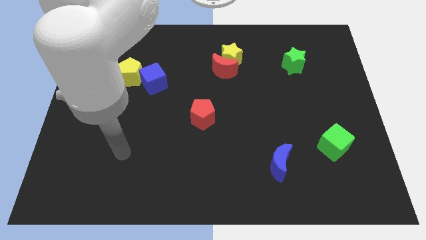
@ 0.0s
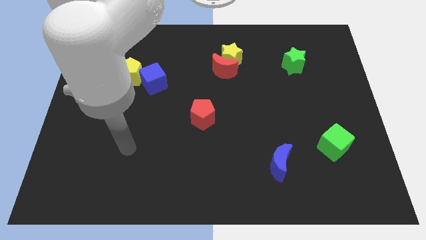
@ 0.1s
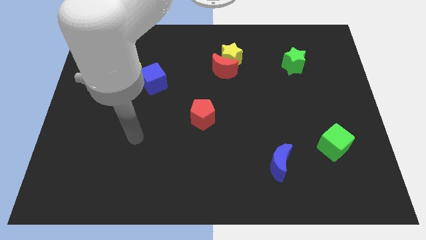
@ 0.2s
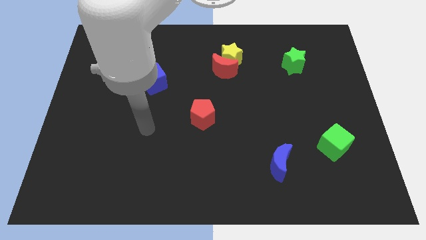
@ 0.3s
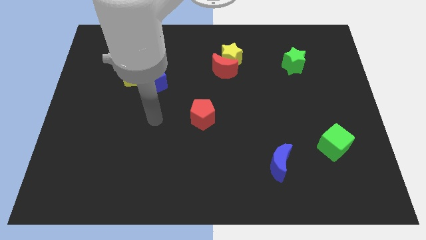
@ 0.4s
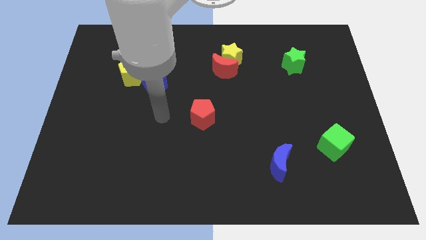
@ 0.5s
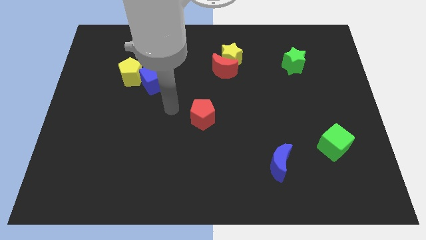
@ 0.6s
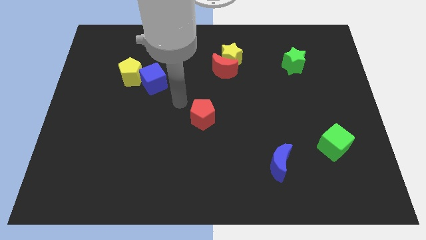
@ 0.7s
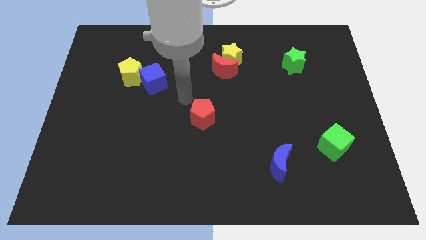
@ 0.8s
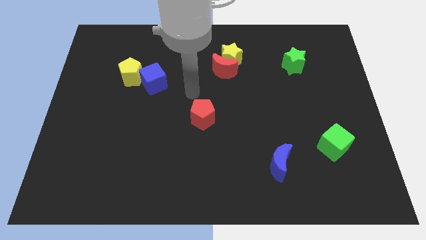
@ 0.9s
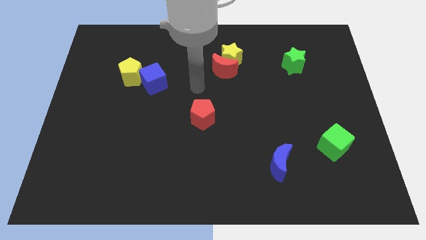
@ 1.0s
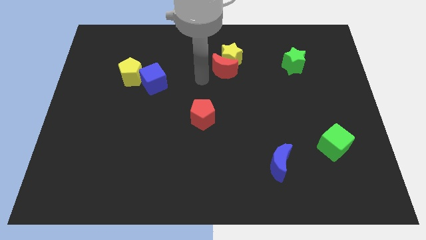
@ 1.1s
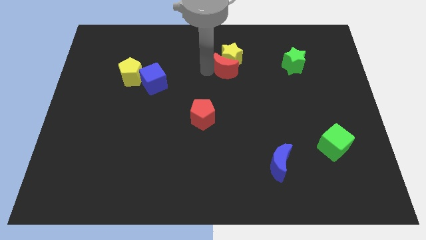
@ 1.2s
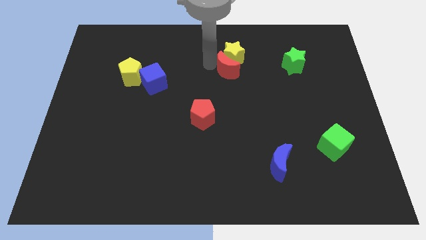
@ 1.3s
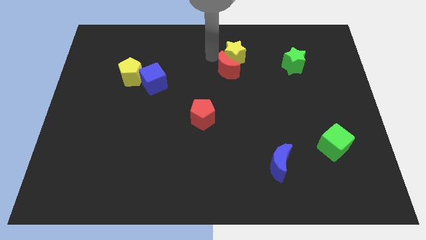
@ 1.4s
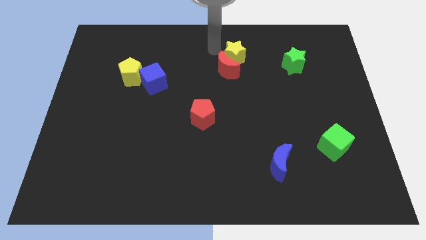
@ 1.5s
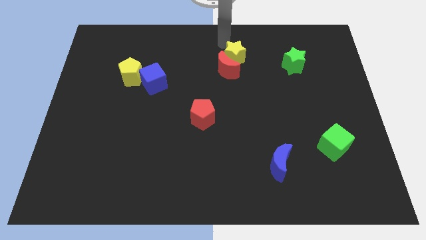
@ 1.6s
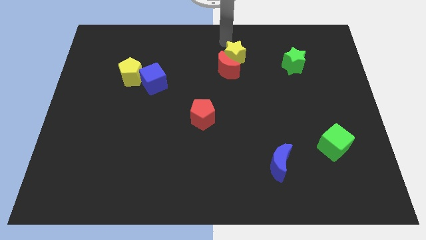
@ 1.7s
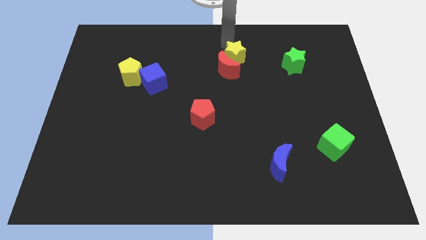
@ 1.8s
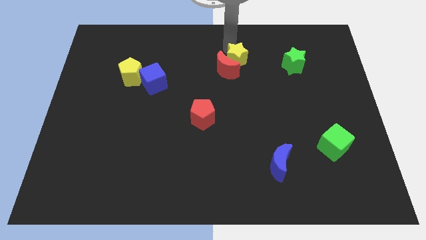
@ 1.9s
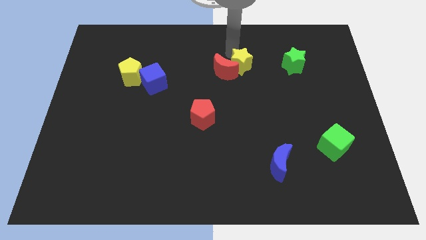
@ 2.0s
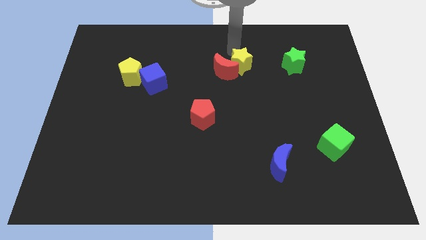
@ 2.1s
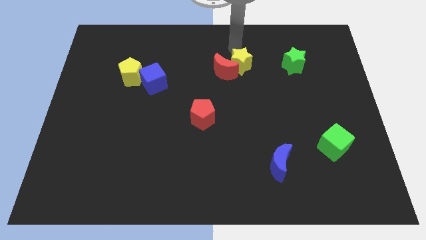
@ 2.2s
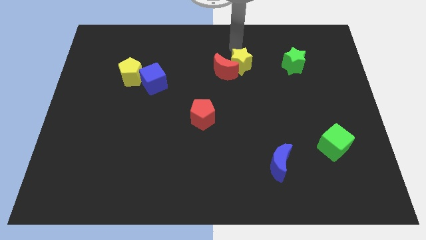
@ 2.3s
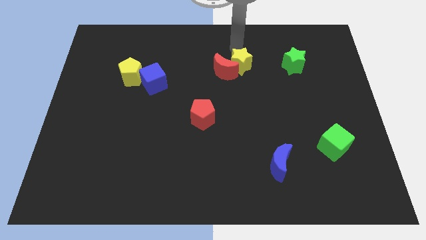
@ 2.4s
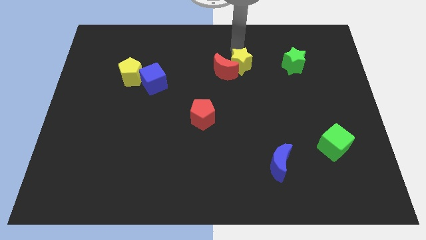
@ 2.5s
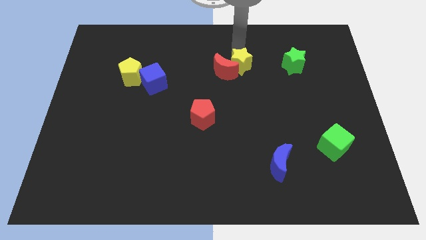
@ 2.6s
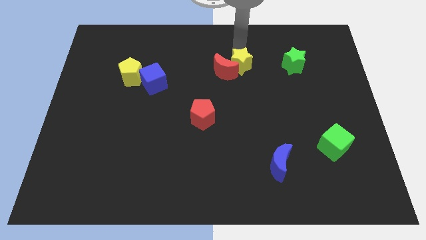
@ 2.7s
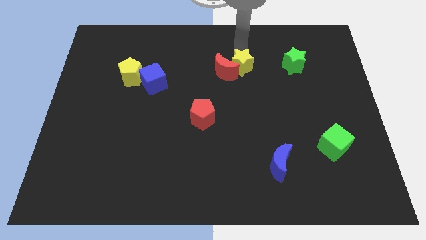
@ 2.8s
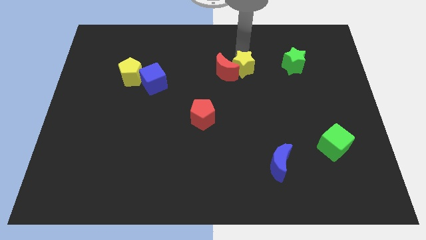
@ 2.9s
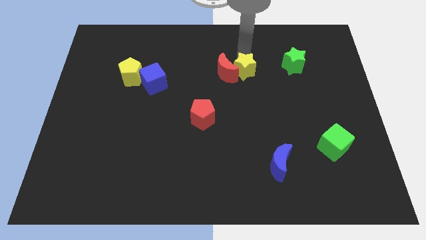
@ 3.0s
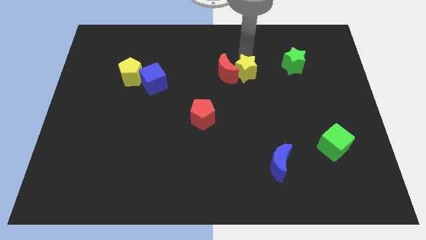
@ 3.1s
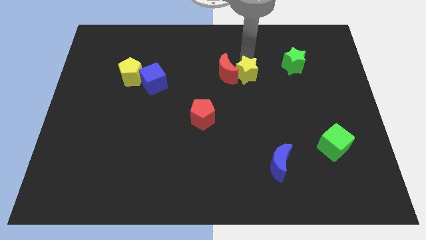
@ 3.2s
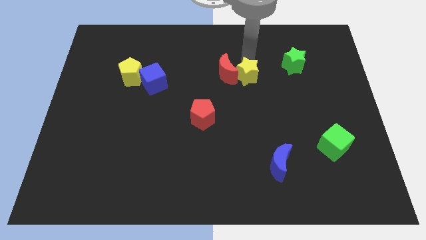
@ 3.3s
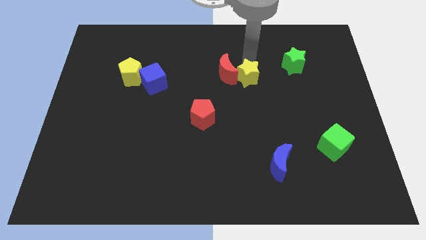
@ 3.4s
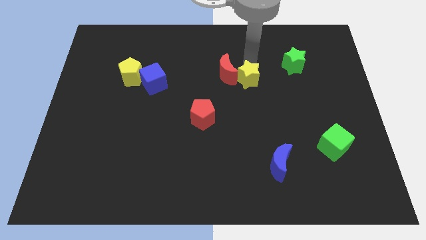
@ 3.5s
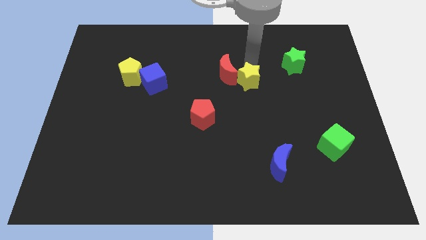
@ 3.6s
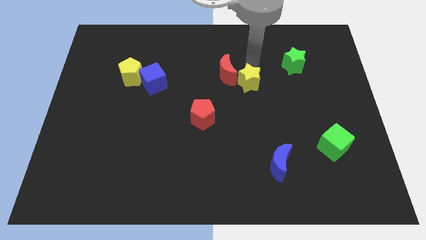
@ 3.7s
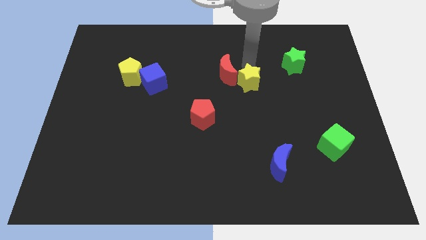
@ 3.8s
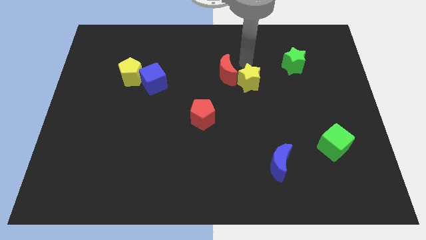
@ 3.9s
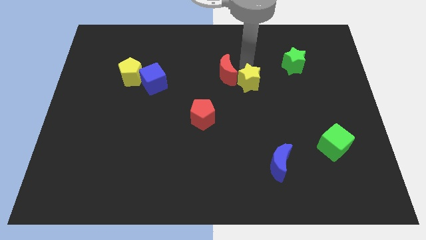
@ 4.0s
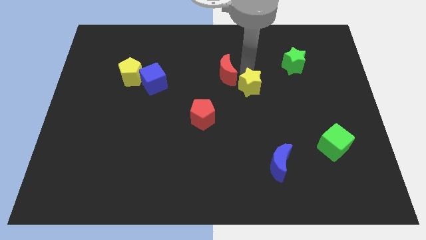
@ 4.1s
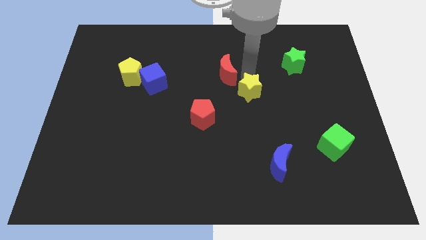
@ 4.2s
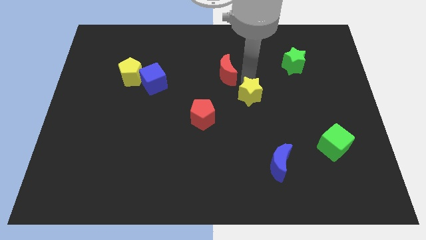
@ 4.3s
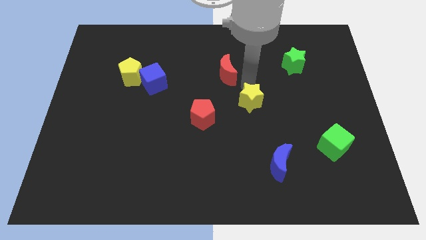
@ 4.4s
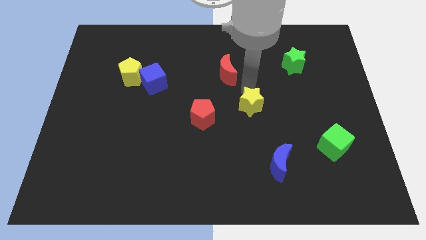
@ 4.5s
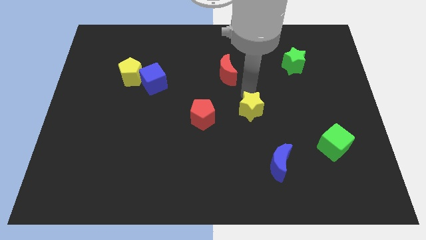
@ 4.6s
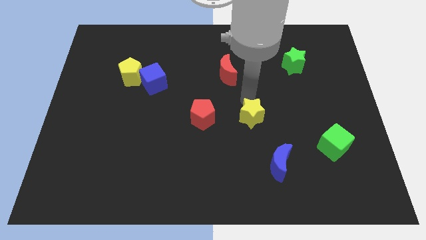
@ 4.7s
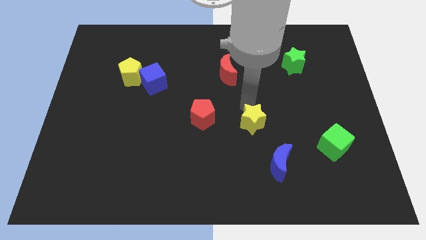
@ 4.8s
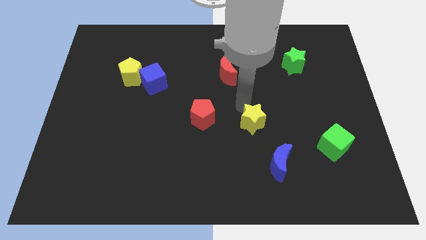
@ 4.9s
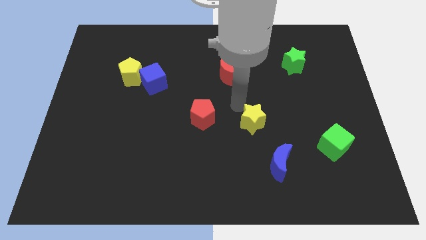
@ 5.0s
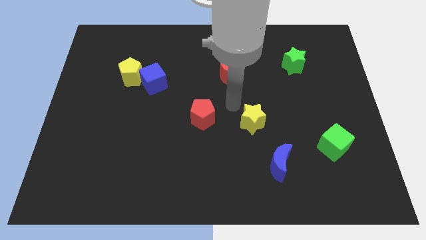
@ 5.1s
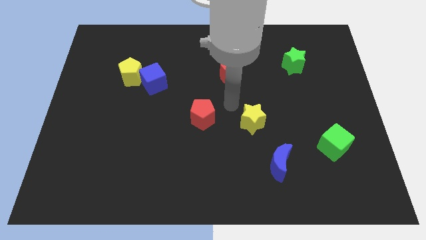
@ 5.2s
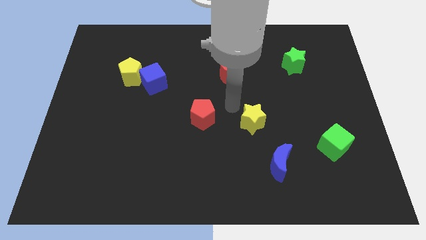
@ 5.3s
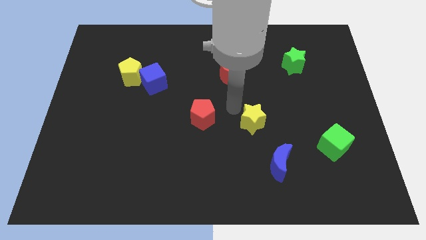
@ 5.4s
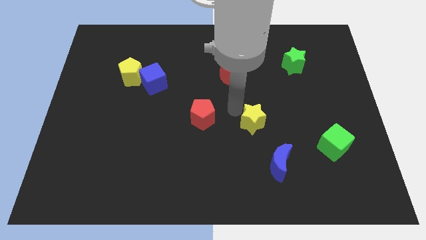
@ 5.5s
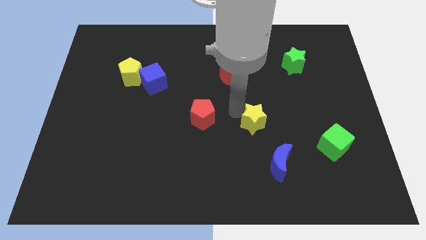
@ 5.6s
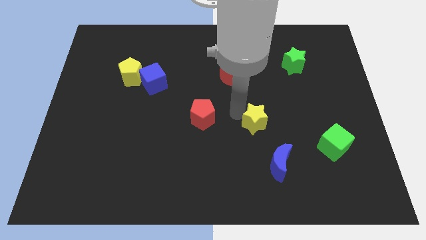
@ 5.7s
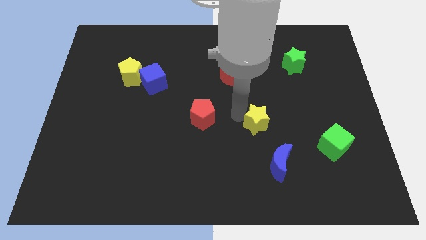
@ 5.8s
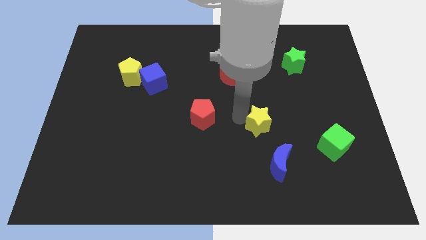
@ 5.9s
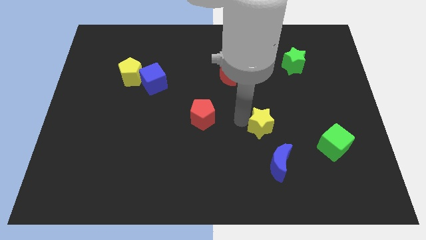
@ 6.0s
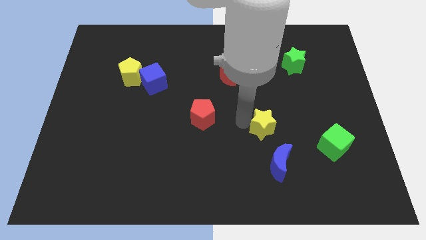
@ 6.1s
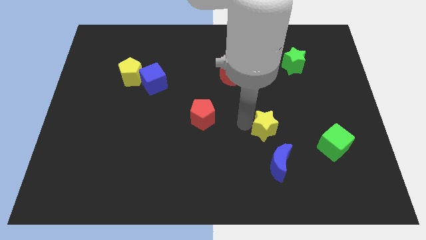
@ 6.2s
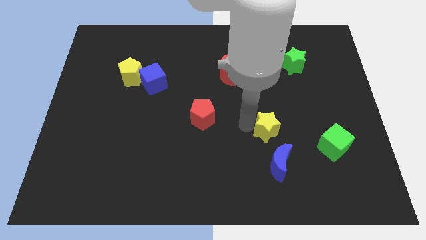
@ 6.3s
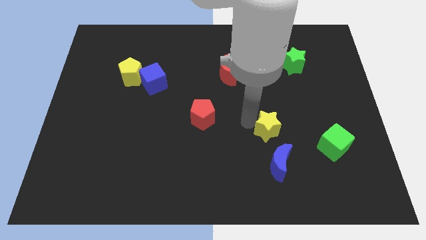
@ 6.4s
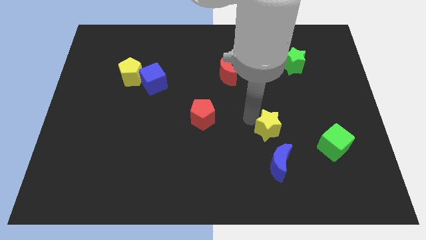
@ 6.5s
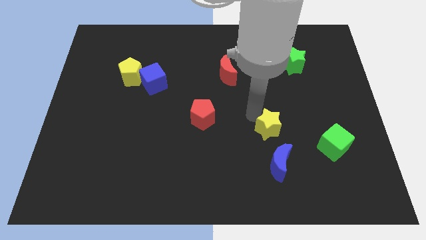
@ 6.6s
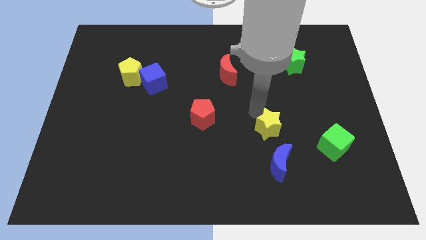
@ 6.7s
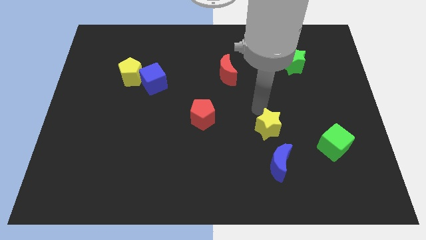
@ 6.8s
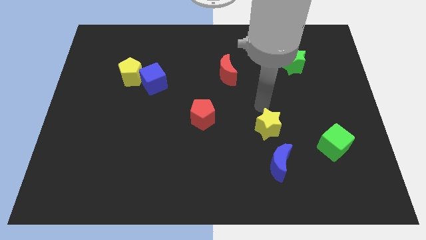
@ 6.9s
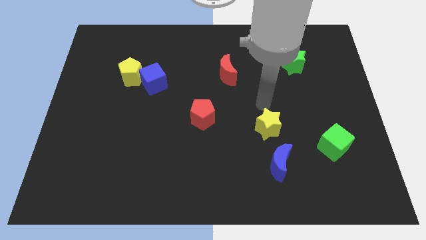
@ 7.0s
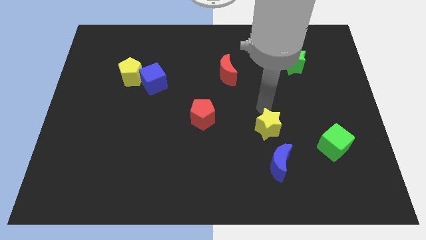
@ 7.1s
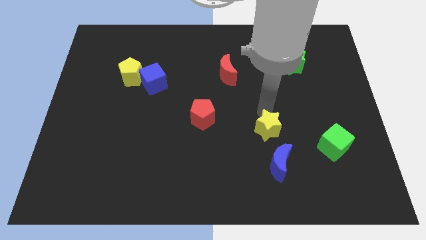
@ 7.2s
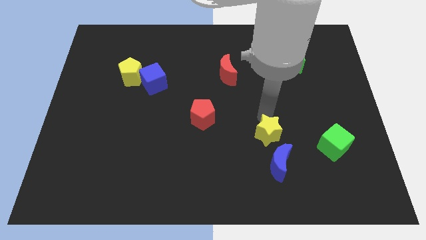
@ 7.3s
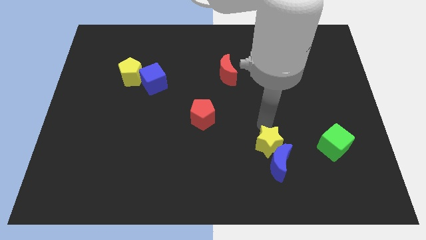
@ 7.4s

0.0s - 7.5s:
move the yellow star towards the blue moon

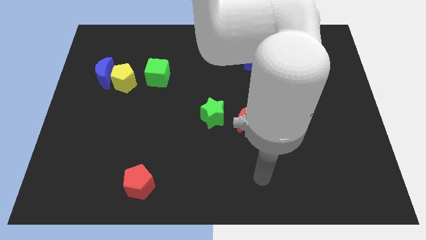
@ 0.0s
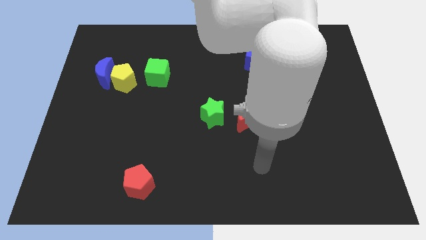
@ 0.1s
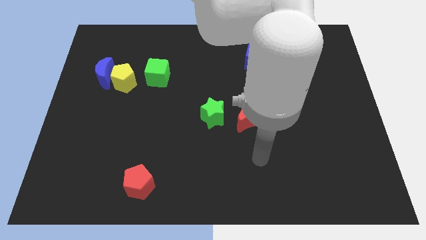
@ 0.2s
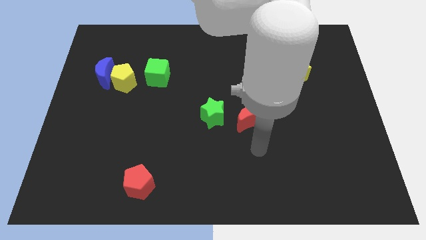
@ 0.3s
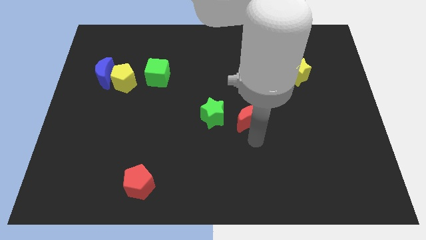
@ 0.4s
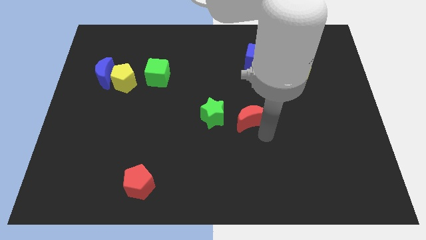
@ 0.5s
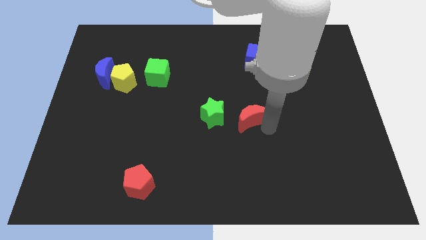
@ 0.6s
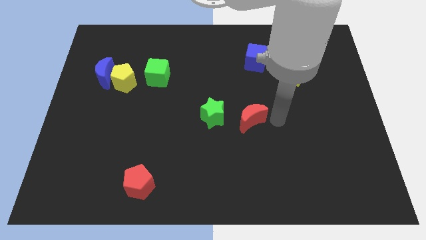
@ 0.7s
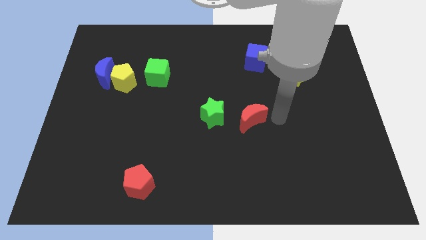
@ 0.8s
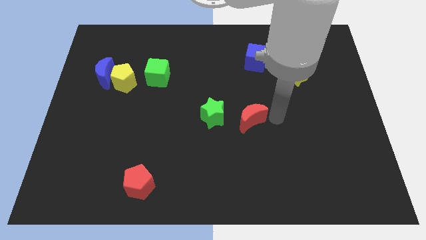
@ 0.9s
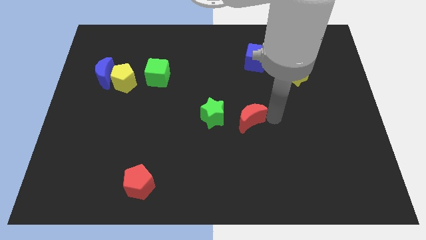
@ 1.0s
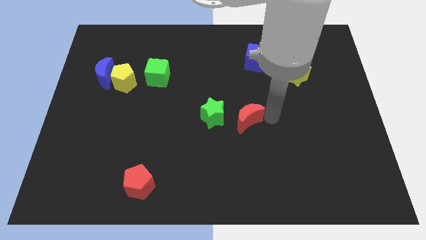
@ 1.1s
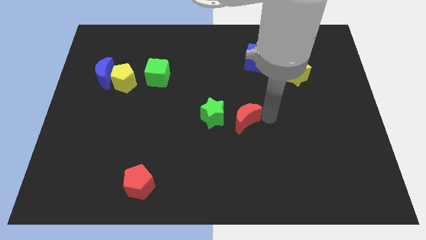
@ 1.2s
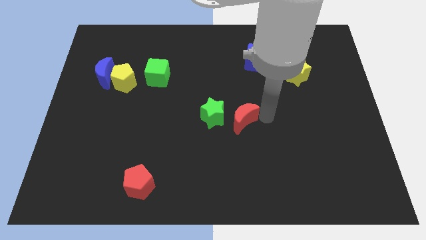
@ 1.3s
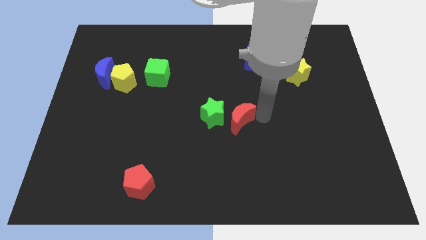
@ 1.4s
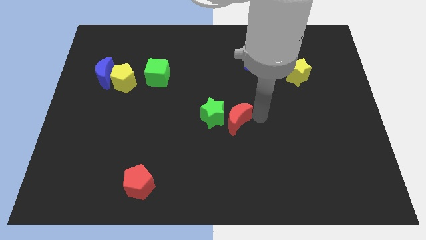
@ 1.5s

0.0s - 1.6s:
put the red moon next to the green star
